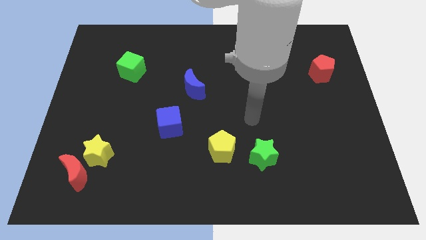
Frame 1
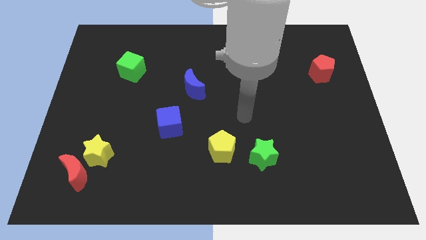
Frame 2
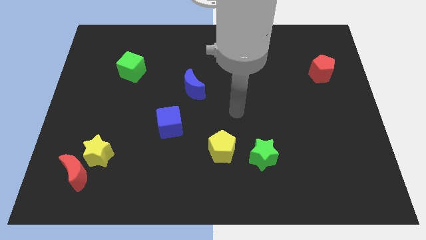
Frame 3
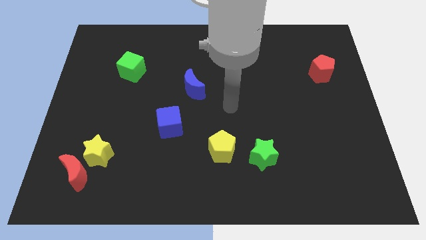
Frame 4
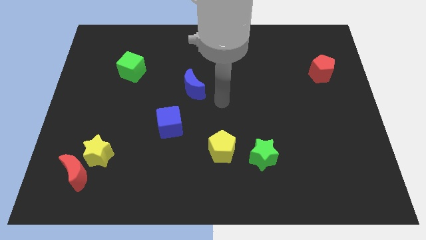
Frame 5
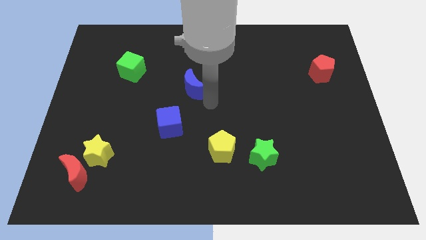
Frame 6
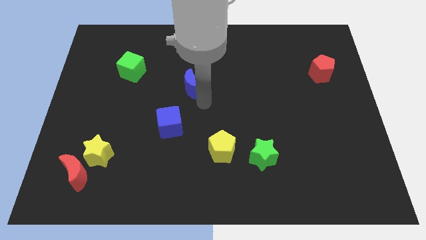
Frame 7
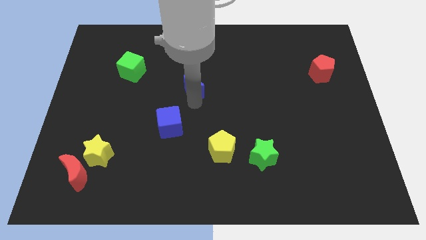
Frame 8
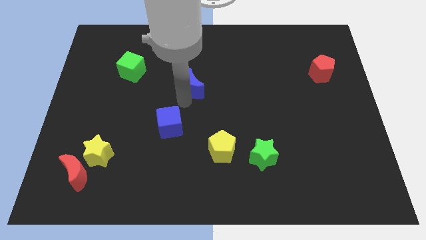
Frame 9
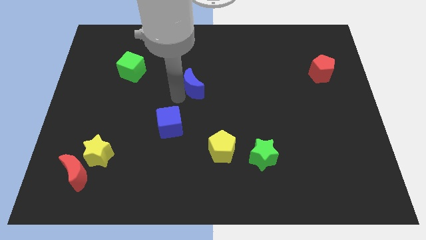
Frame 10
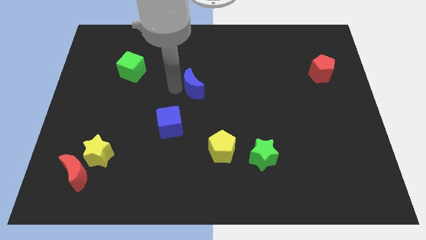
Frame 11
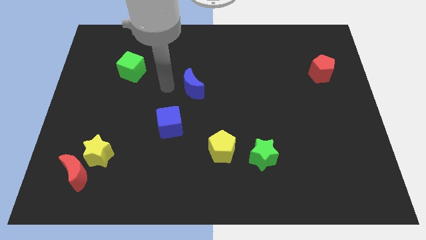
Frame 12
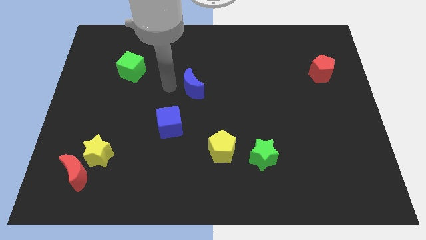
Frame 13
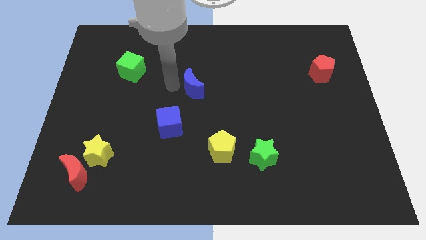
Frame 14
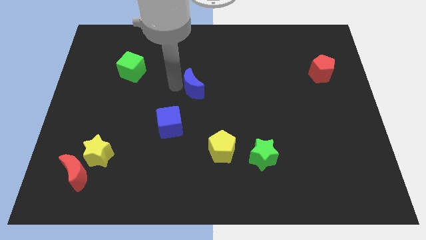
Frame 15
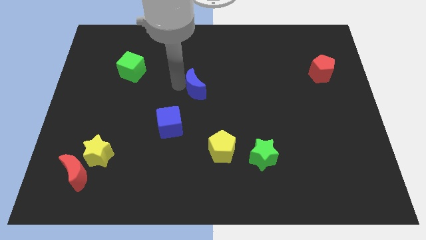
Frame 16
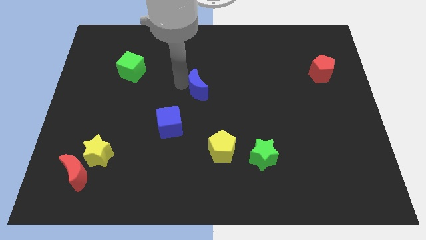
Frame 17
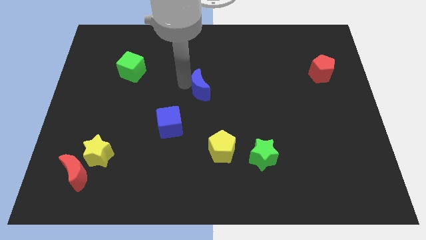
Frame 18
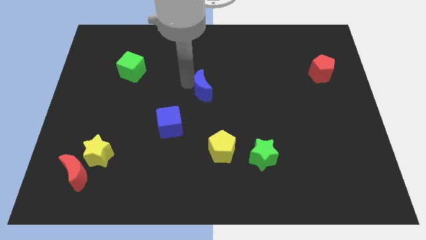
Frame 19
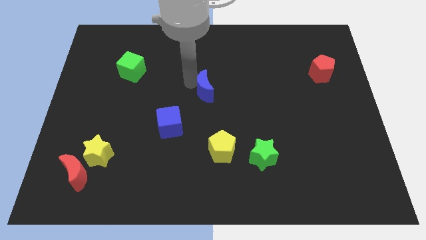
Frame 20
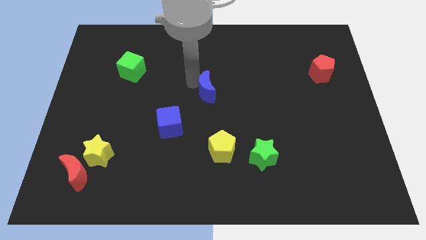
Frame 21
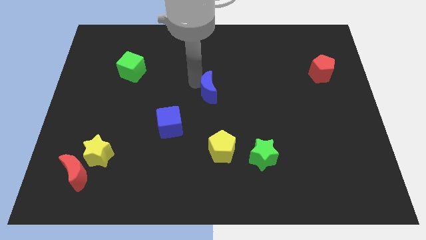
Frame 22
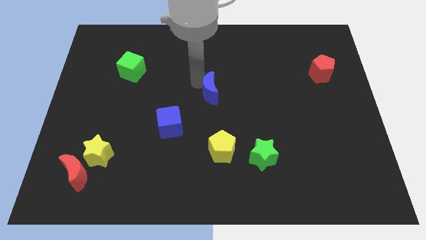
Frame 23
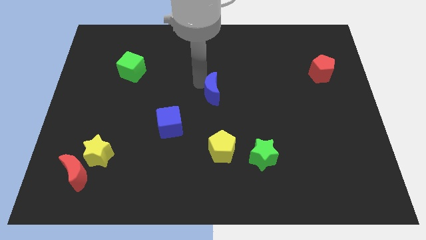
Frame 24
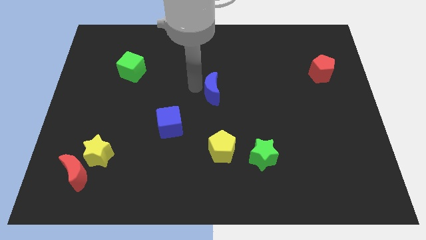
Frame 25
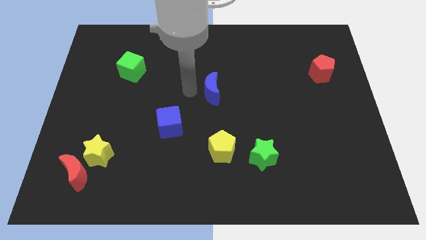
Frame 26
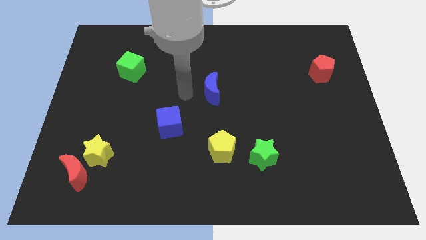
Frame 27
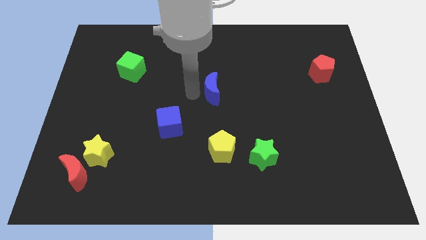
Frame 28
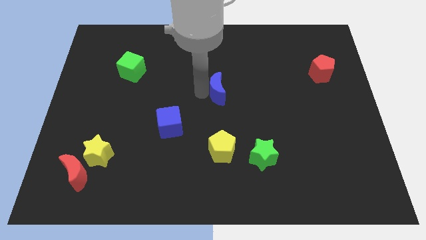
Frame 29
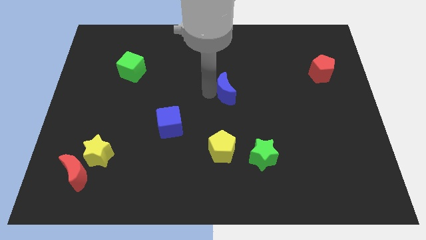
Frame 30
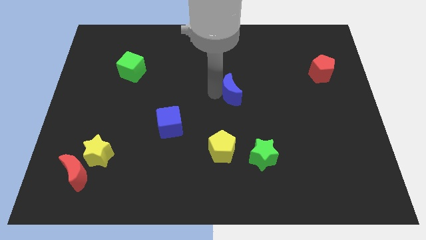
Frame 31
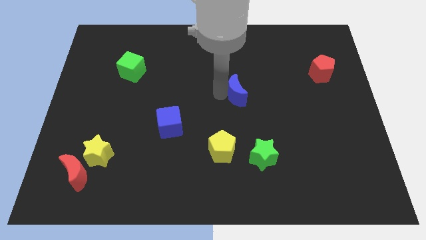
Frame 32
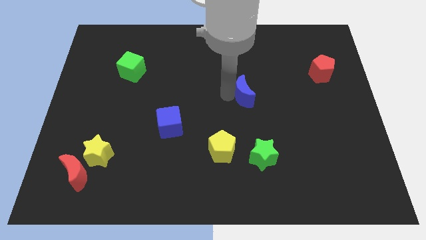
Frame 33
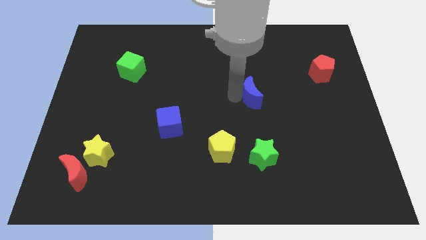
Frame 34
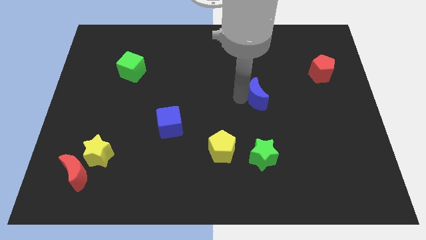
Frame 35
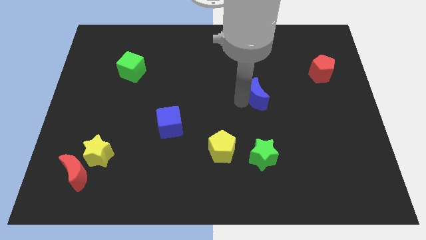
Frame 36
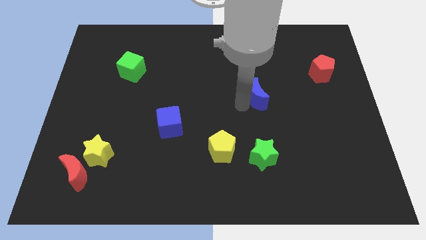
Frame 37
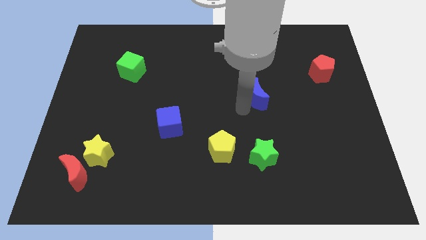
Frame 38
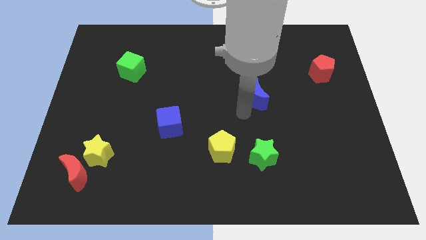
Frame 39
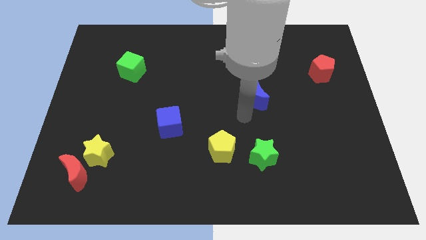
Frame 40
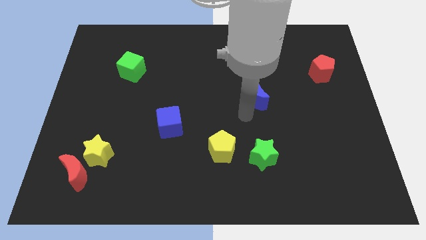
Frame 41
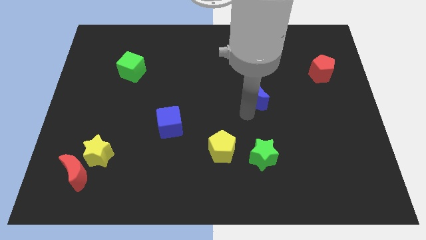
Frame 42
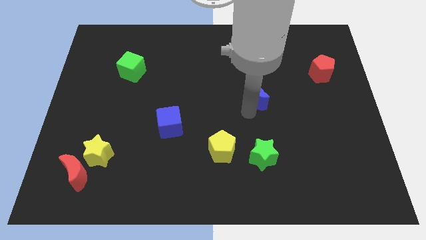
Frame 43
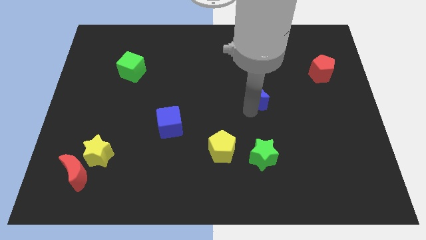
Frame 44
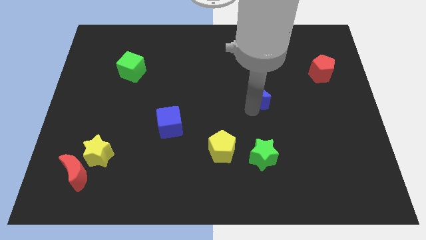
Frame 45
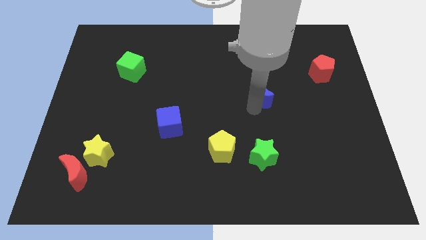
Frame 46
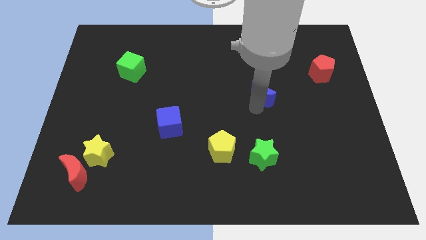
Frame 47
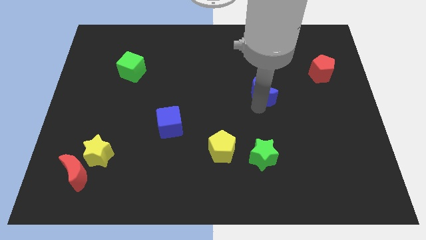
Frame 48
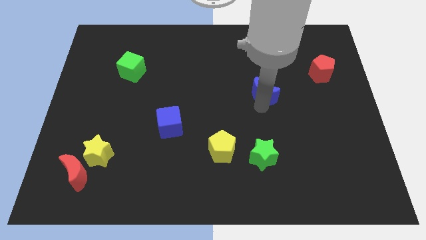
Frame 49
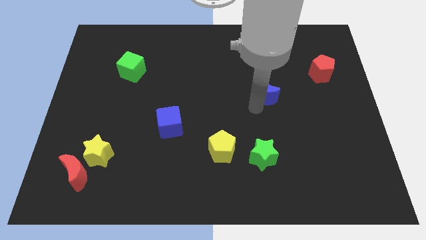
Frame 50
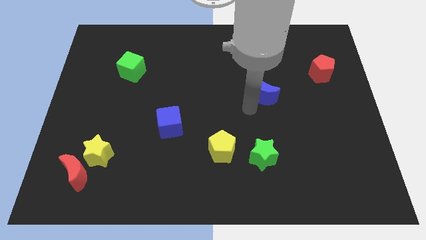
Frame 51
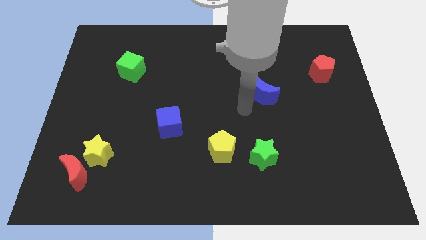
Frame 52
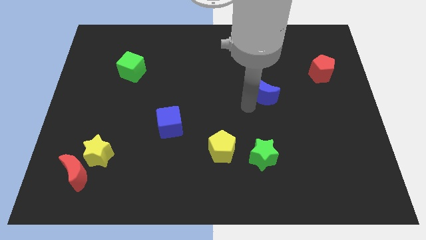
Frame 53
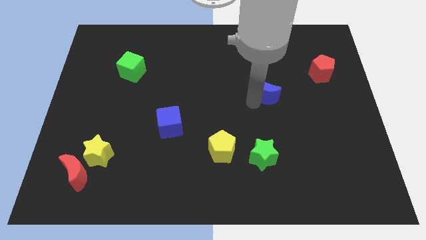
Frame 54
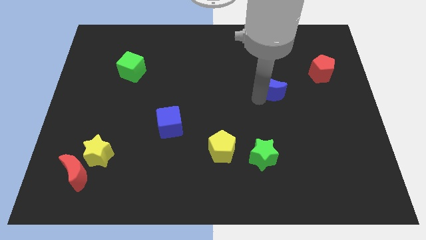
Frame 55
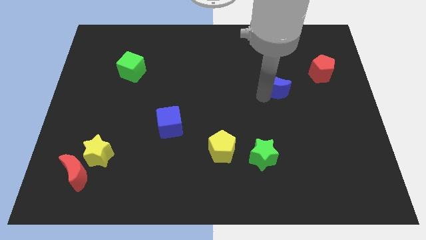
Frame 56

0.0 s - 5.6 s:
move the blue moon to the right

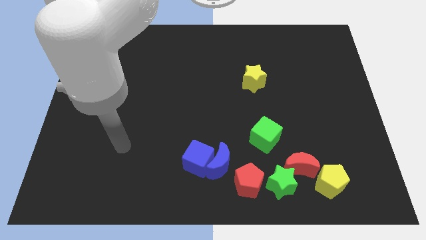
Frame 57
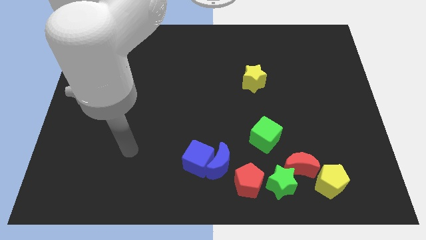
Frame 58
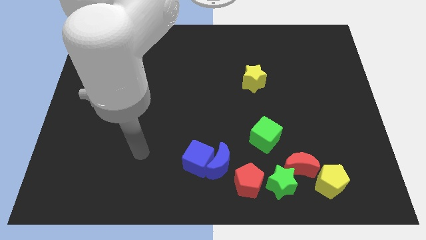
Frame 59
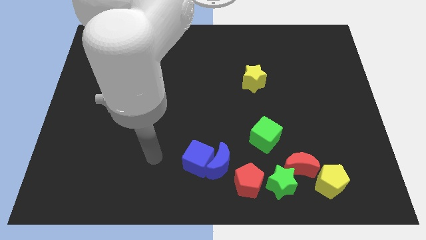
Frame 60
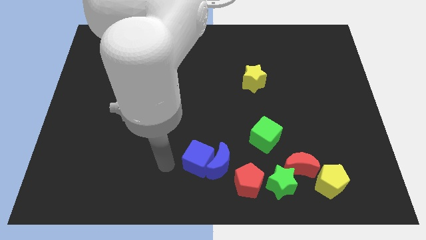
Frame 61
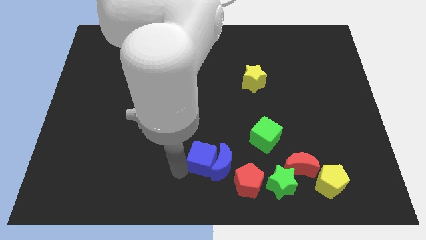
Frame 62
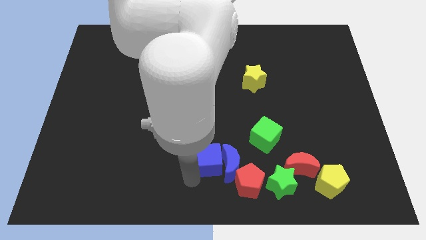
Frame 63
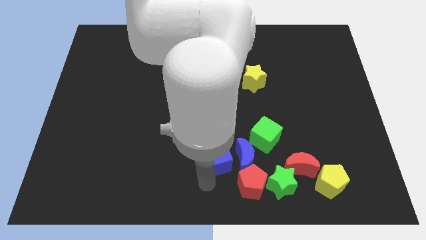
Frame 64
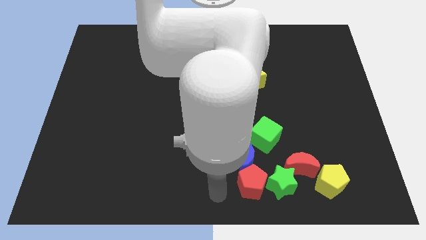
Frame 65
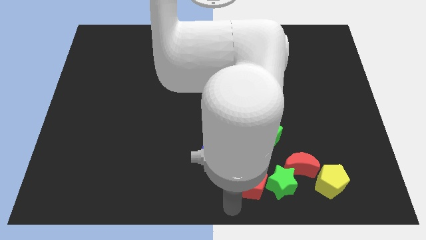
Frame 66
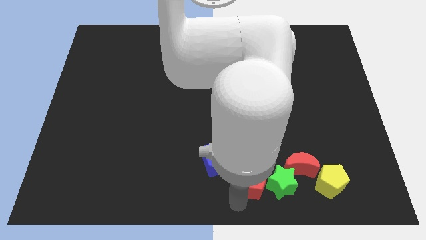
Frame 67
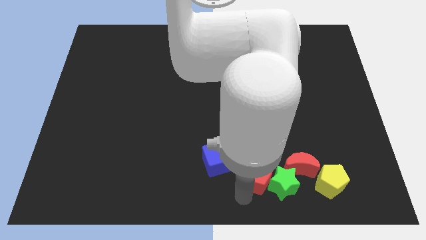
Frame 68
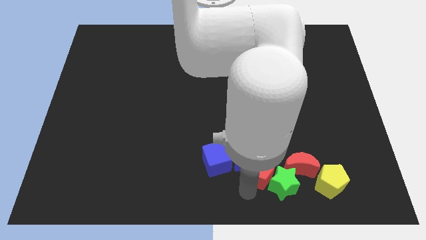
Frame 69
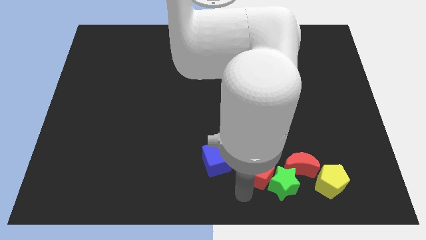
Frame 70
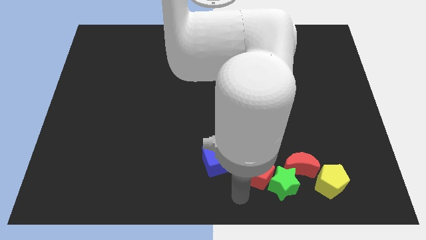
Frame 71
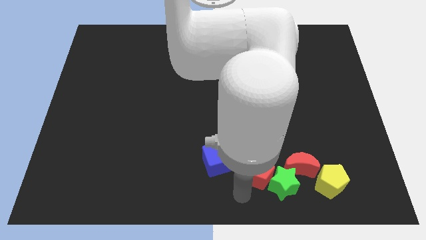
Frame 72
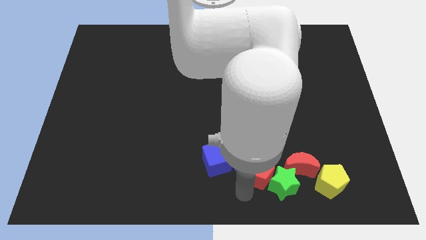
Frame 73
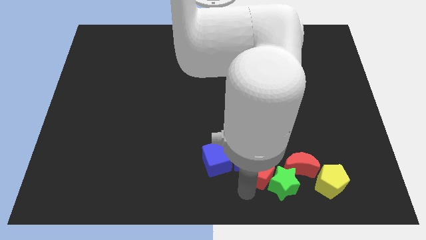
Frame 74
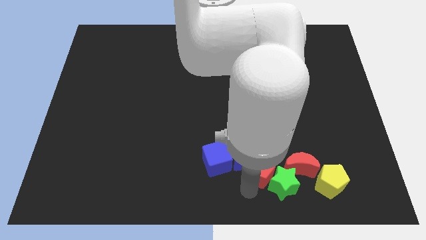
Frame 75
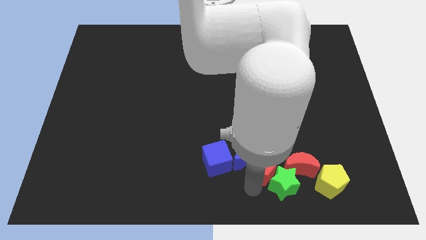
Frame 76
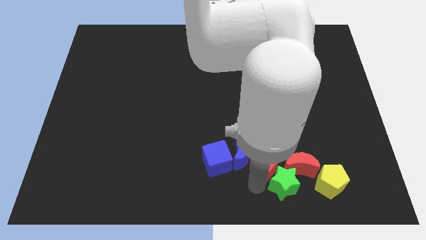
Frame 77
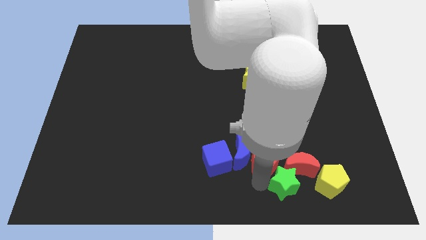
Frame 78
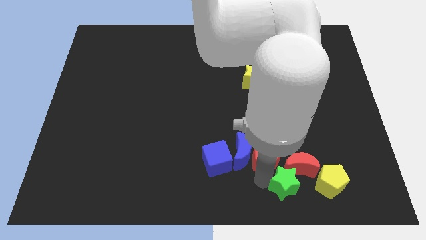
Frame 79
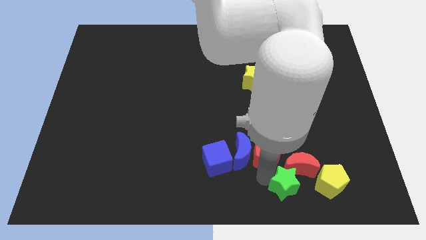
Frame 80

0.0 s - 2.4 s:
slightly slide the red pentagon upwards and to the right

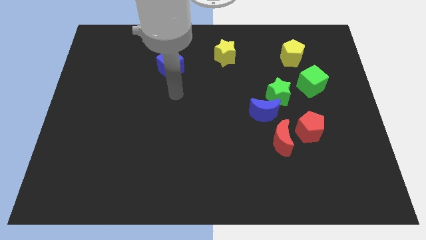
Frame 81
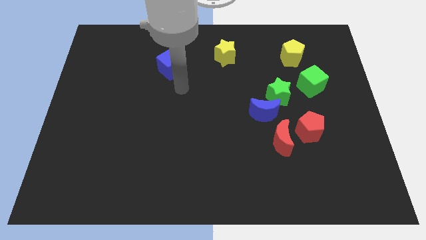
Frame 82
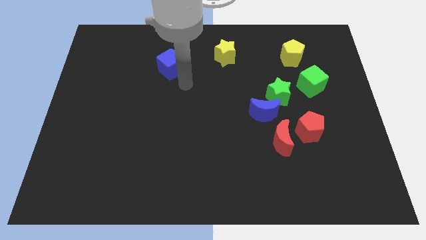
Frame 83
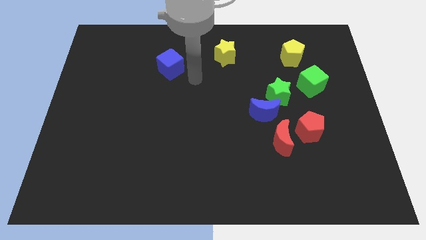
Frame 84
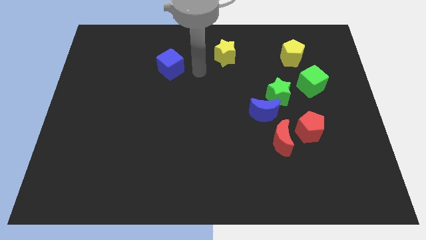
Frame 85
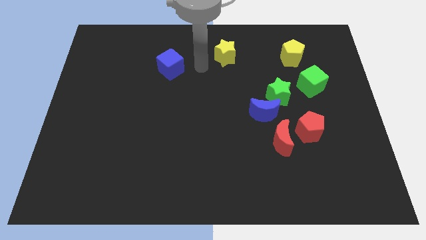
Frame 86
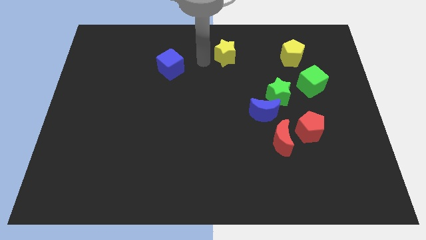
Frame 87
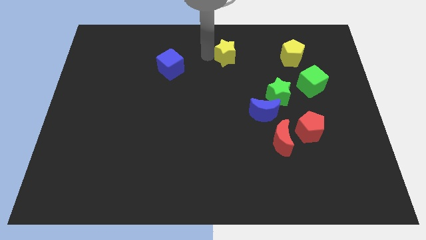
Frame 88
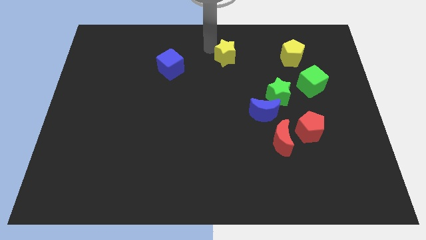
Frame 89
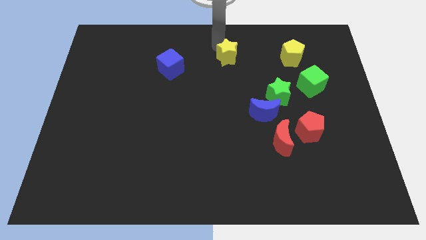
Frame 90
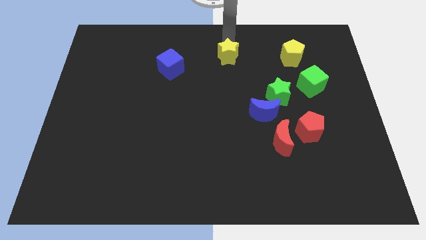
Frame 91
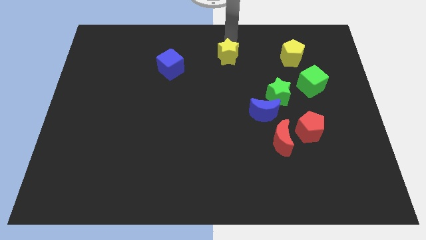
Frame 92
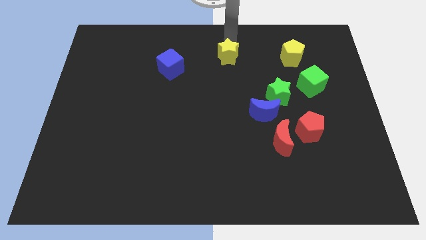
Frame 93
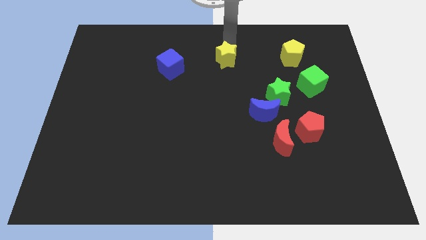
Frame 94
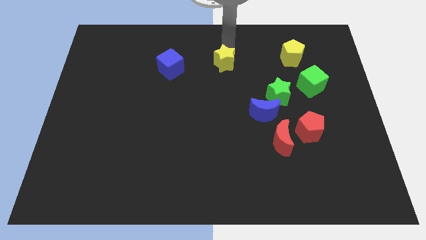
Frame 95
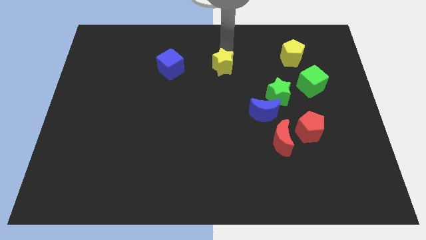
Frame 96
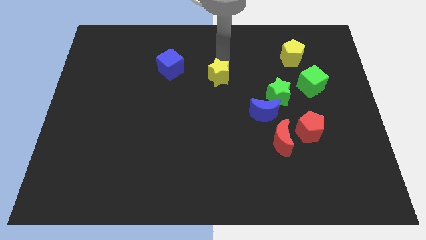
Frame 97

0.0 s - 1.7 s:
slightly slide the yellow star downwards
